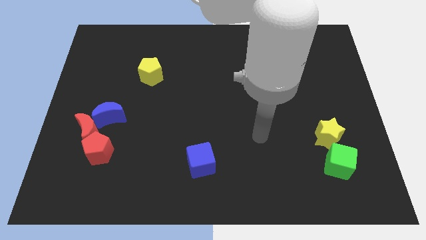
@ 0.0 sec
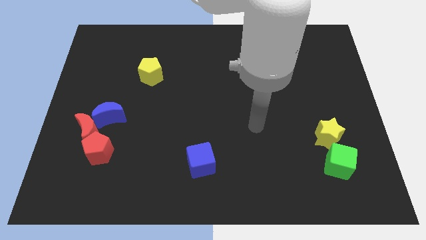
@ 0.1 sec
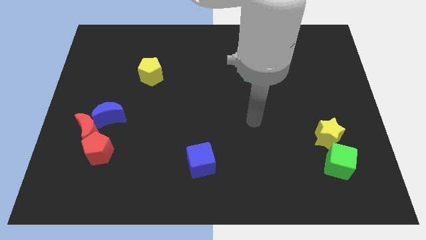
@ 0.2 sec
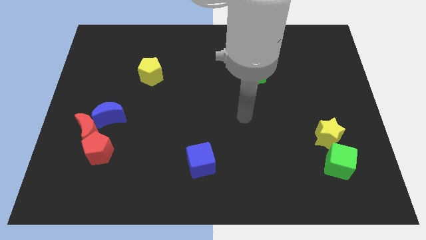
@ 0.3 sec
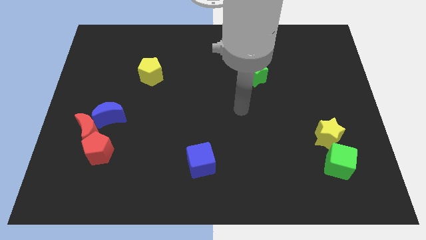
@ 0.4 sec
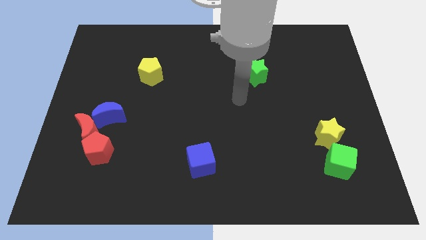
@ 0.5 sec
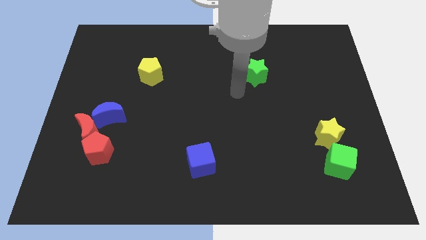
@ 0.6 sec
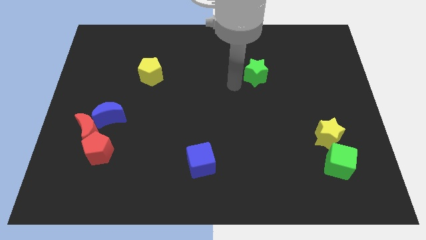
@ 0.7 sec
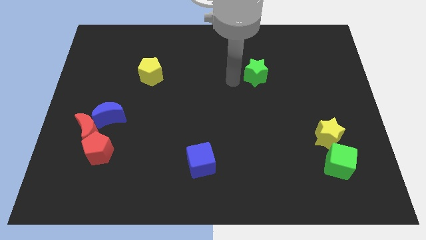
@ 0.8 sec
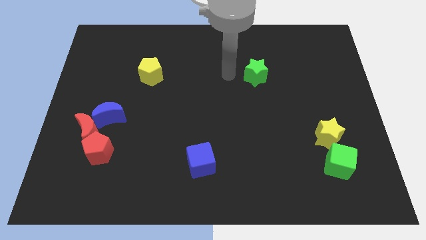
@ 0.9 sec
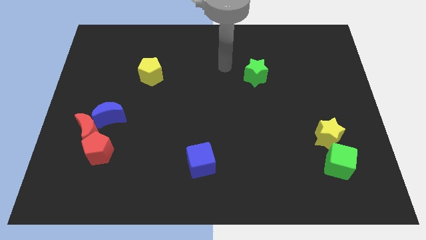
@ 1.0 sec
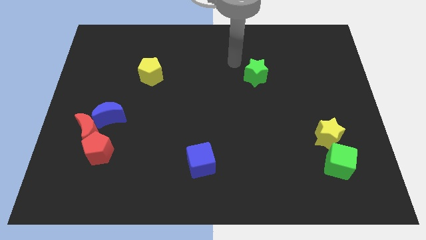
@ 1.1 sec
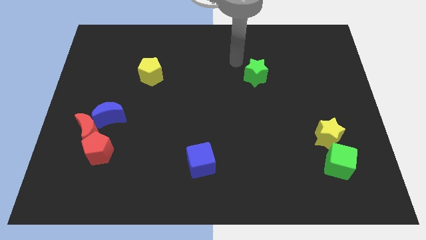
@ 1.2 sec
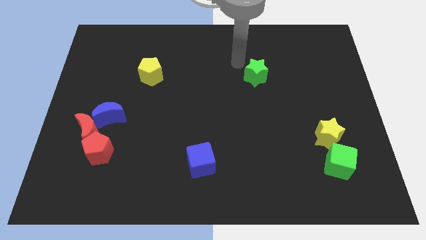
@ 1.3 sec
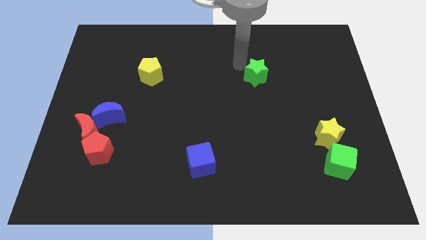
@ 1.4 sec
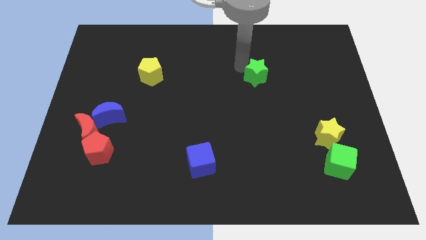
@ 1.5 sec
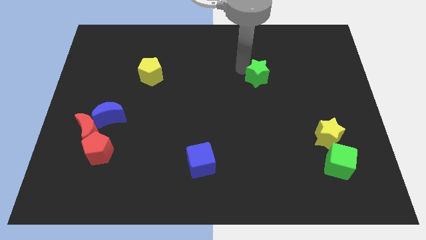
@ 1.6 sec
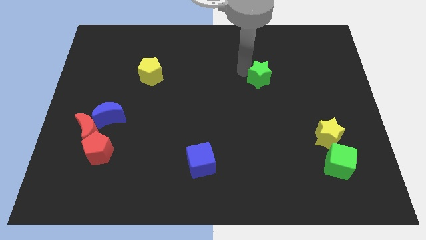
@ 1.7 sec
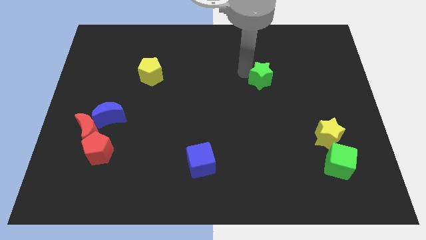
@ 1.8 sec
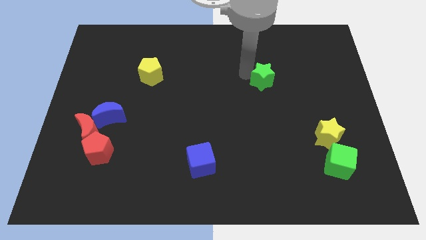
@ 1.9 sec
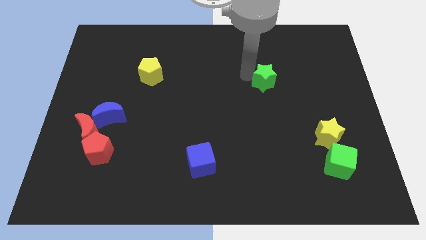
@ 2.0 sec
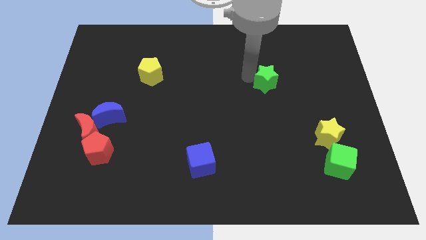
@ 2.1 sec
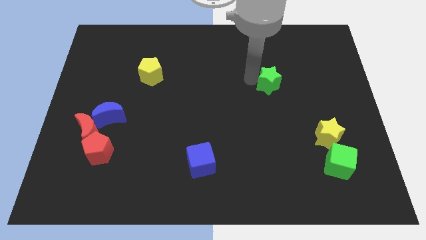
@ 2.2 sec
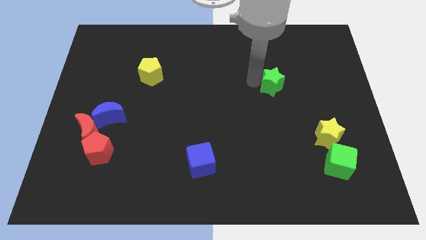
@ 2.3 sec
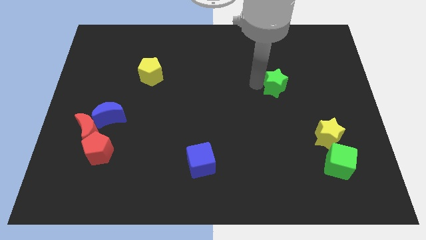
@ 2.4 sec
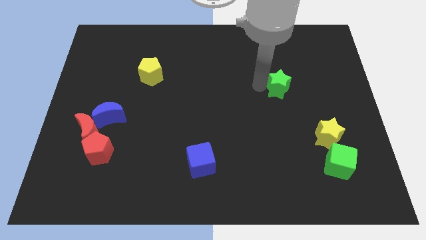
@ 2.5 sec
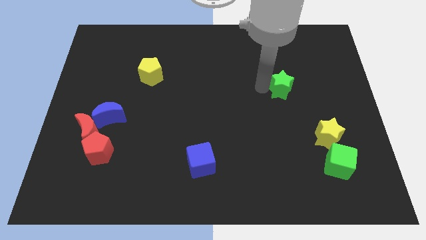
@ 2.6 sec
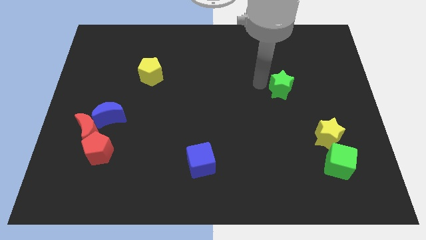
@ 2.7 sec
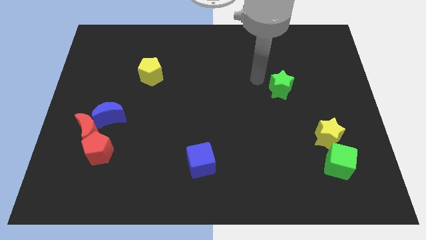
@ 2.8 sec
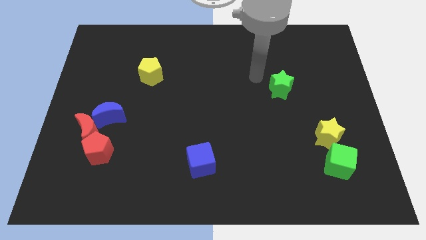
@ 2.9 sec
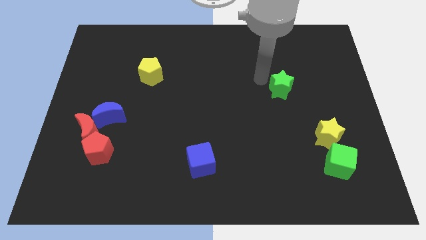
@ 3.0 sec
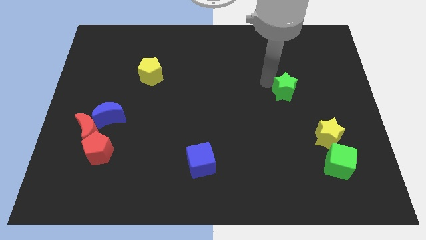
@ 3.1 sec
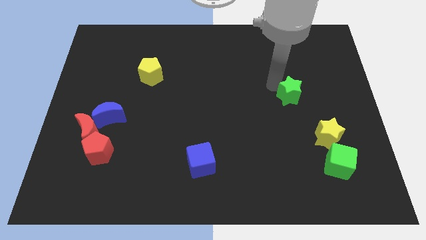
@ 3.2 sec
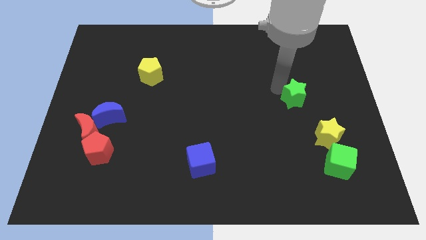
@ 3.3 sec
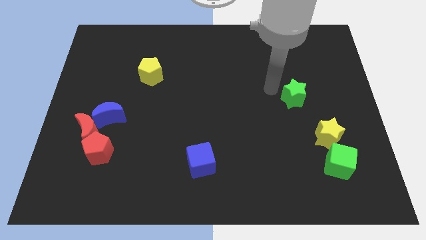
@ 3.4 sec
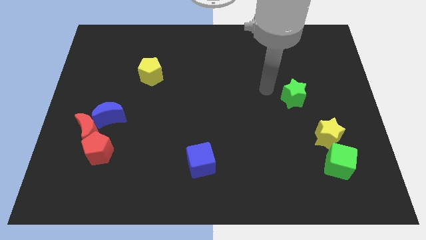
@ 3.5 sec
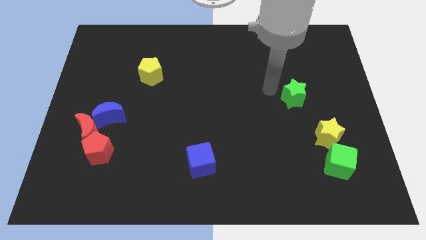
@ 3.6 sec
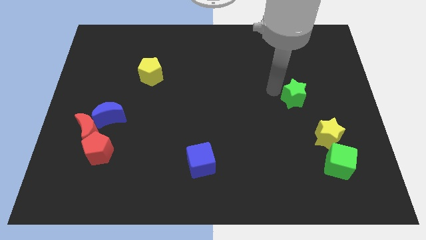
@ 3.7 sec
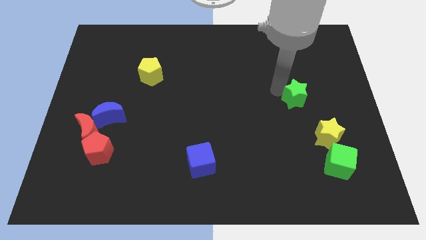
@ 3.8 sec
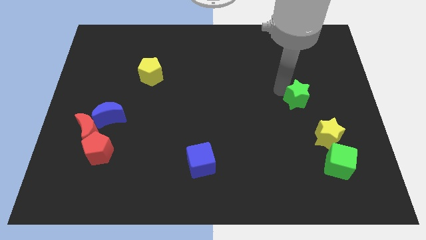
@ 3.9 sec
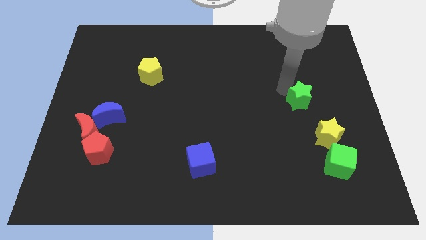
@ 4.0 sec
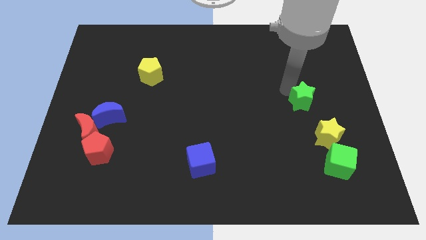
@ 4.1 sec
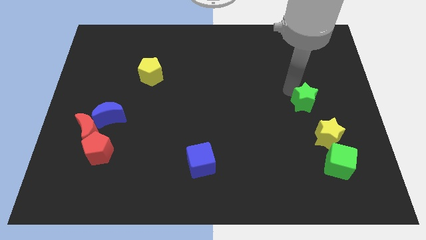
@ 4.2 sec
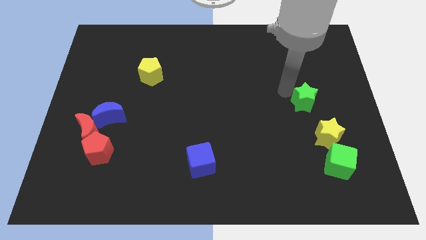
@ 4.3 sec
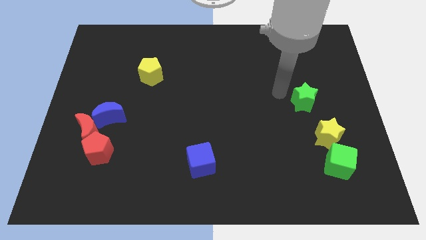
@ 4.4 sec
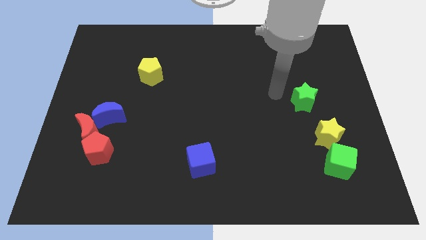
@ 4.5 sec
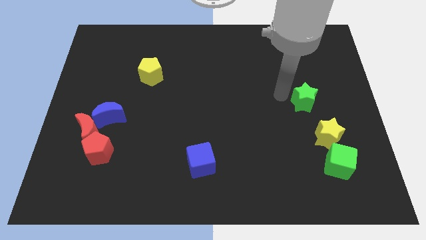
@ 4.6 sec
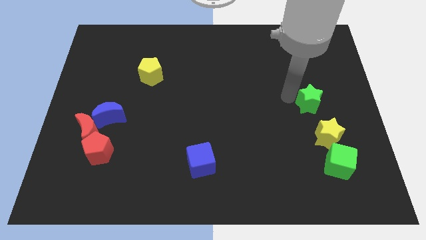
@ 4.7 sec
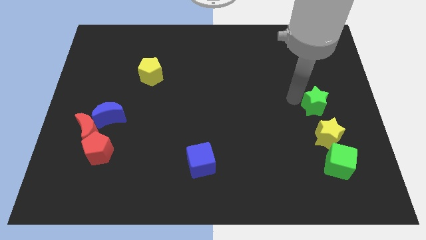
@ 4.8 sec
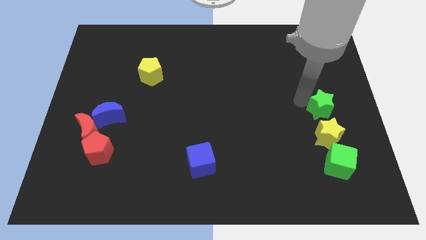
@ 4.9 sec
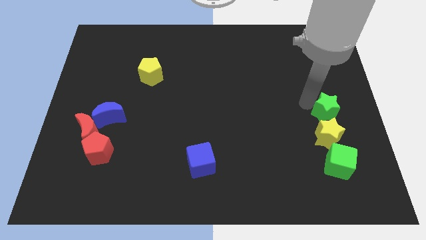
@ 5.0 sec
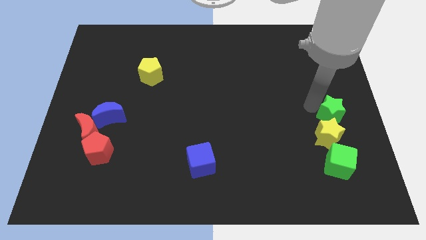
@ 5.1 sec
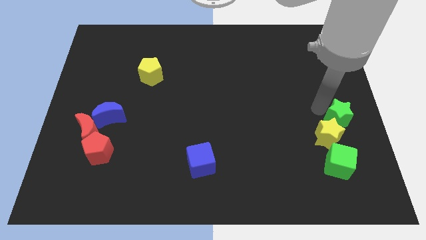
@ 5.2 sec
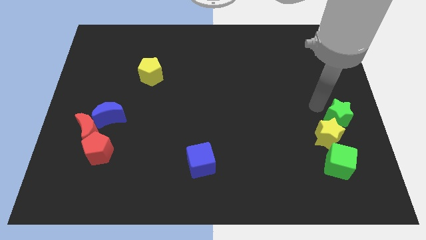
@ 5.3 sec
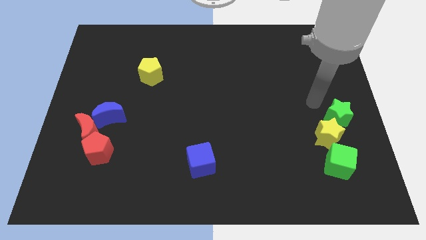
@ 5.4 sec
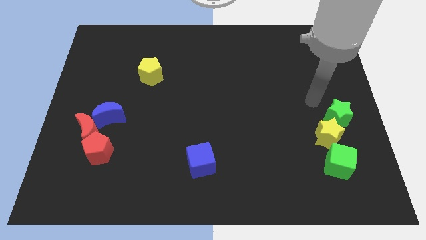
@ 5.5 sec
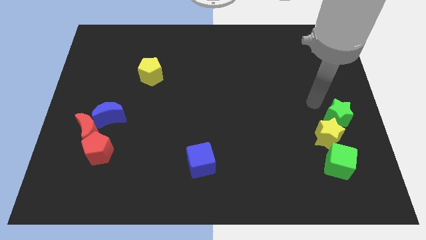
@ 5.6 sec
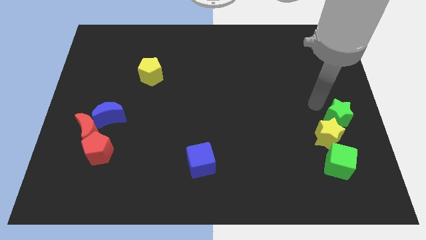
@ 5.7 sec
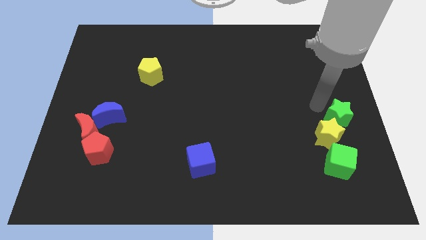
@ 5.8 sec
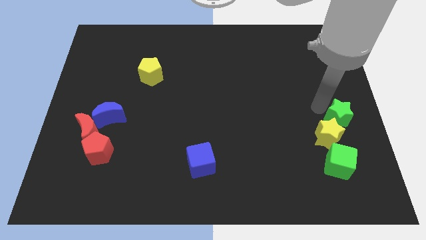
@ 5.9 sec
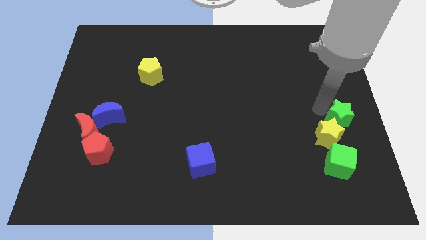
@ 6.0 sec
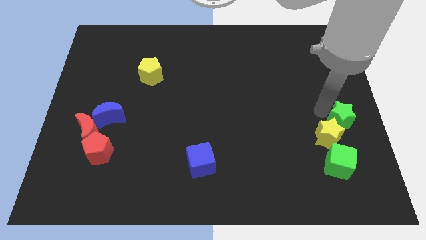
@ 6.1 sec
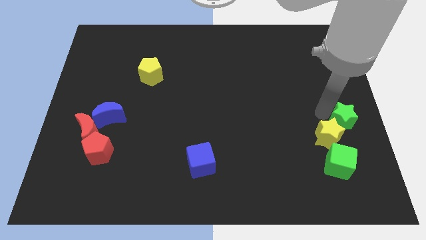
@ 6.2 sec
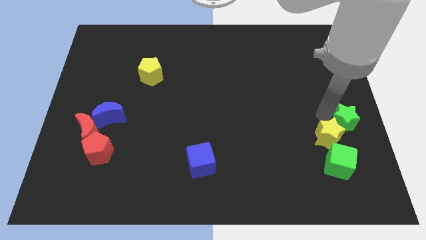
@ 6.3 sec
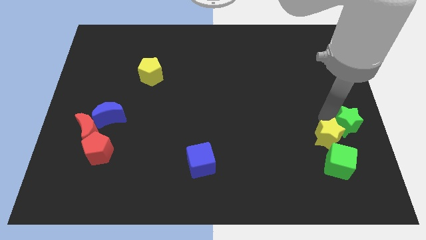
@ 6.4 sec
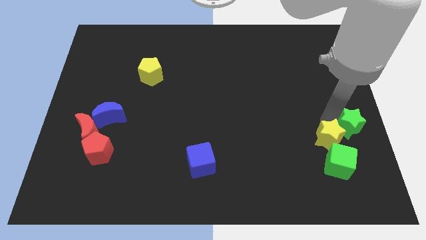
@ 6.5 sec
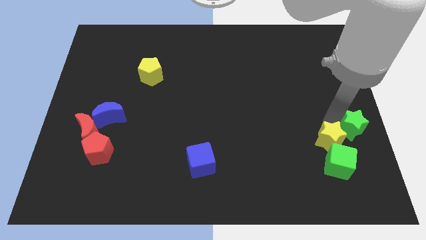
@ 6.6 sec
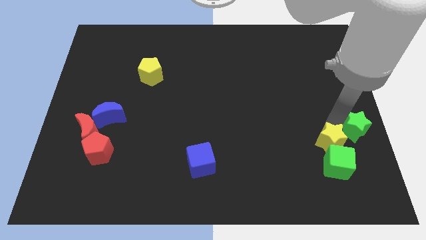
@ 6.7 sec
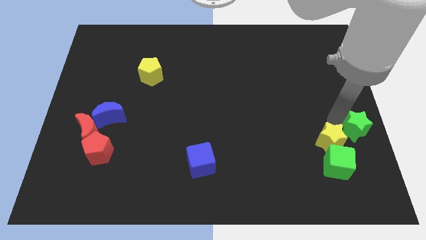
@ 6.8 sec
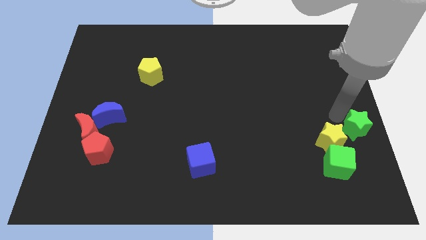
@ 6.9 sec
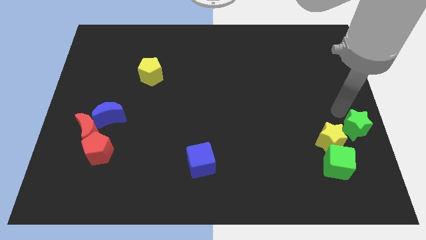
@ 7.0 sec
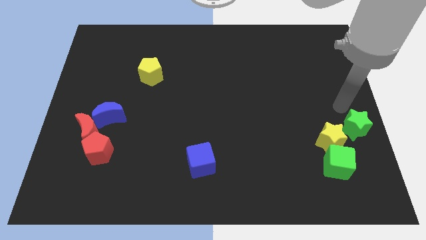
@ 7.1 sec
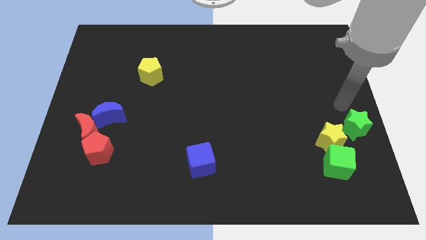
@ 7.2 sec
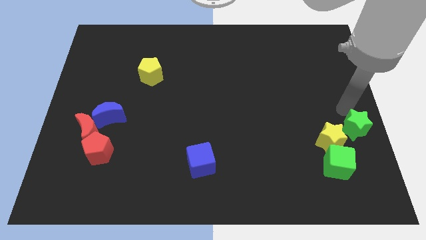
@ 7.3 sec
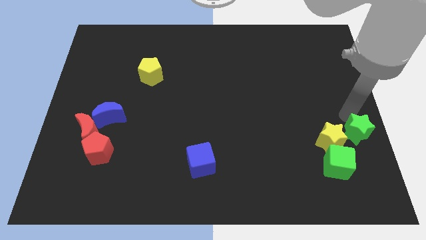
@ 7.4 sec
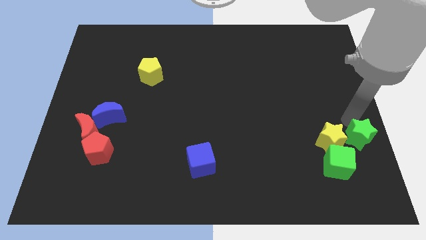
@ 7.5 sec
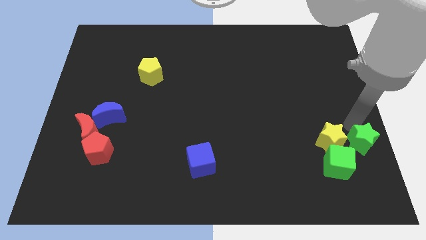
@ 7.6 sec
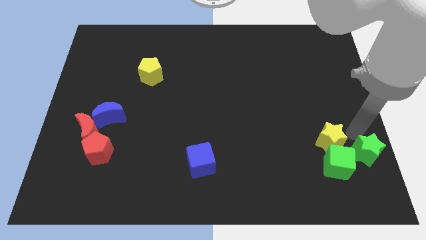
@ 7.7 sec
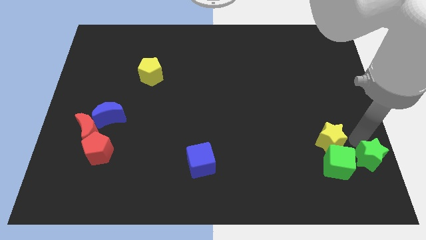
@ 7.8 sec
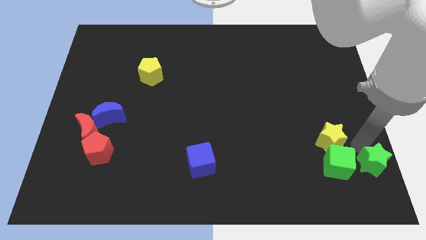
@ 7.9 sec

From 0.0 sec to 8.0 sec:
move the green star to the bottom right corner

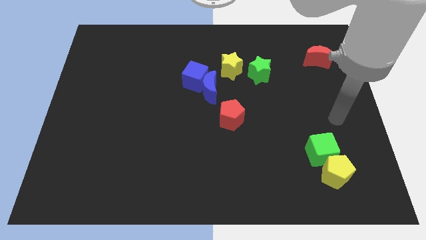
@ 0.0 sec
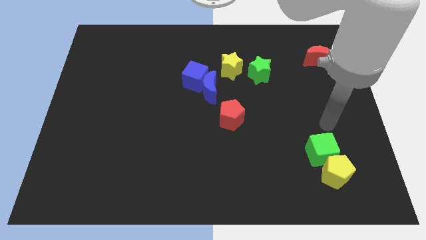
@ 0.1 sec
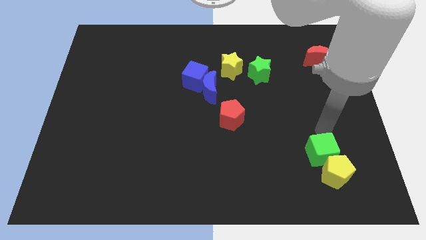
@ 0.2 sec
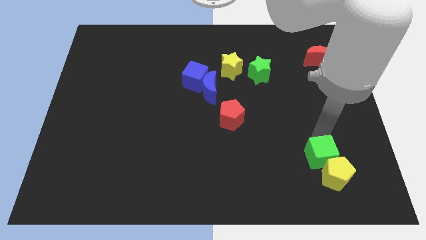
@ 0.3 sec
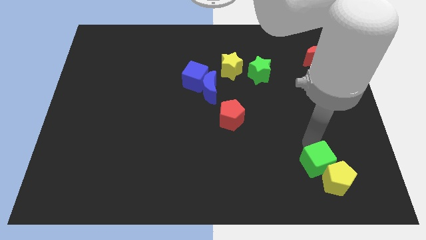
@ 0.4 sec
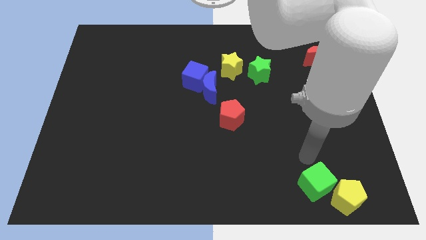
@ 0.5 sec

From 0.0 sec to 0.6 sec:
put the yellow pentagon to the bottom right
